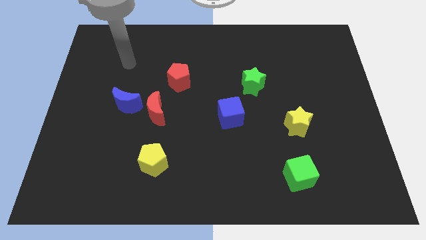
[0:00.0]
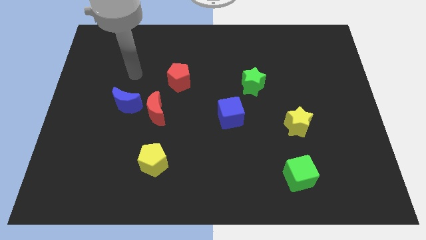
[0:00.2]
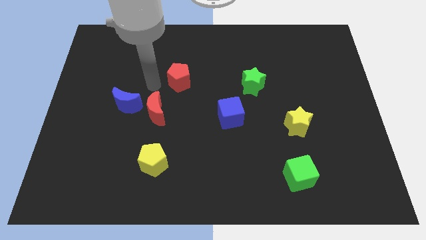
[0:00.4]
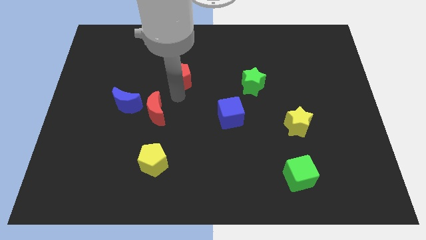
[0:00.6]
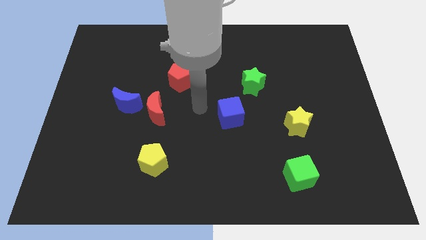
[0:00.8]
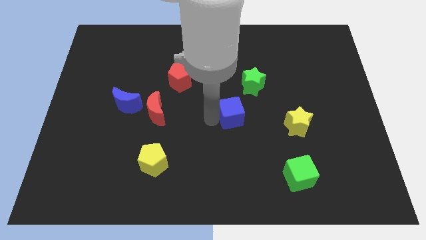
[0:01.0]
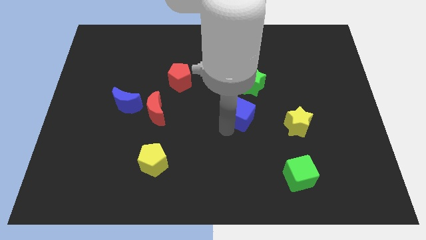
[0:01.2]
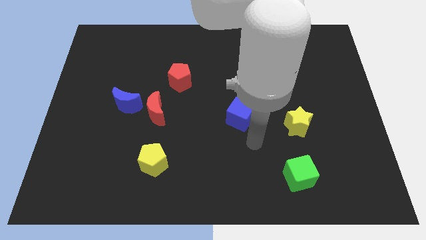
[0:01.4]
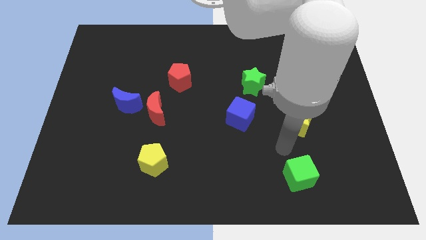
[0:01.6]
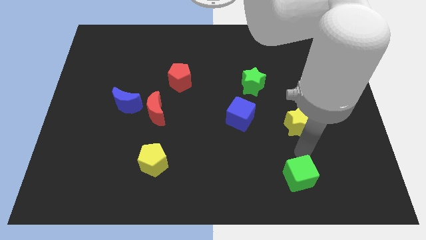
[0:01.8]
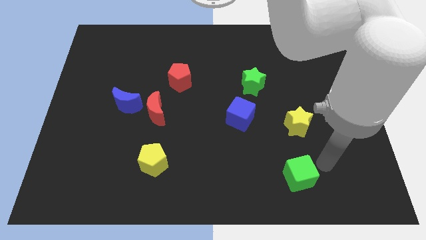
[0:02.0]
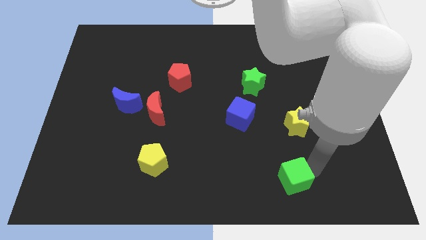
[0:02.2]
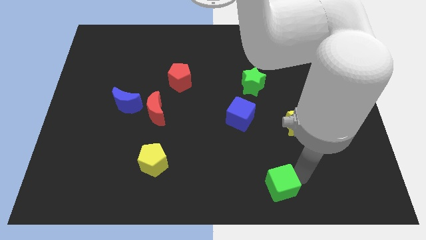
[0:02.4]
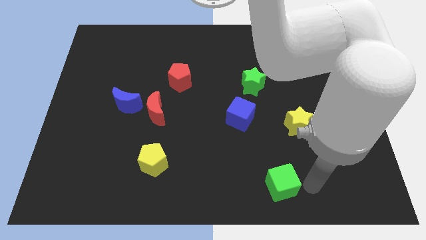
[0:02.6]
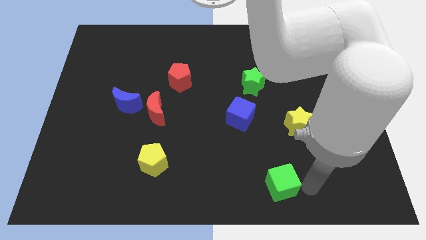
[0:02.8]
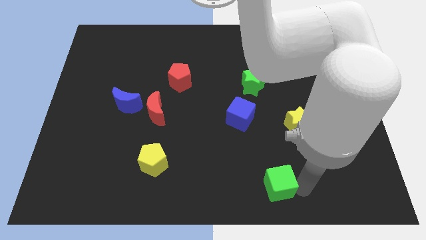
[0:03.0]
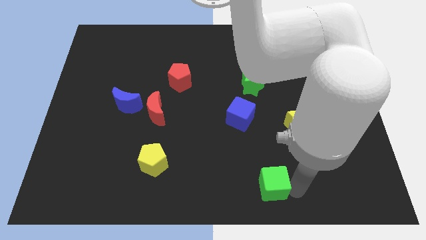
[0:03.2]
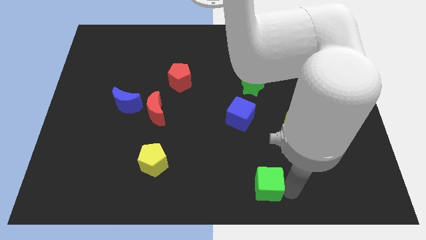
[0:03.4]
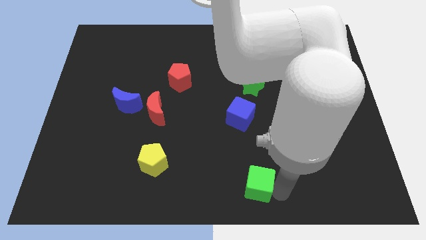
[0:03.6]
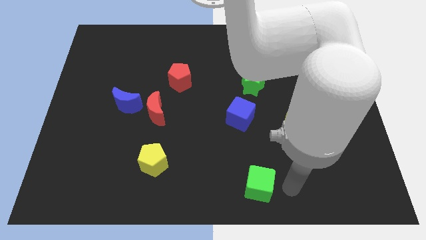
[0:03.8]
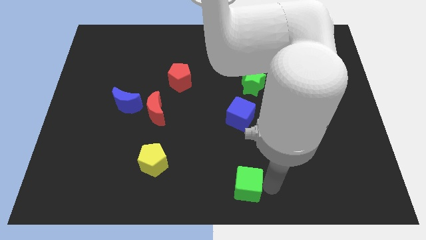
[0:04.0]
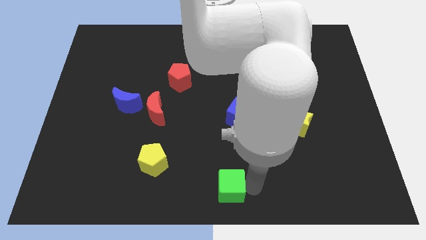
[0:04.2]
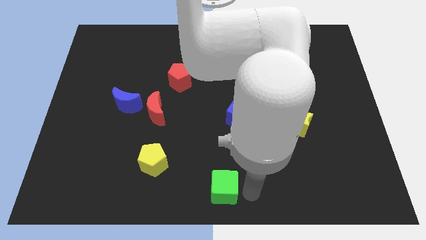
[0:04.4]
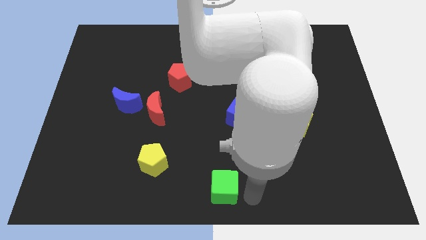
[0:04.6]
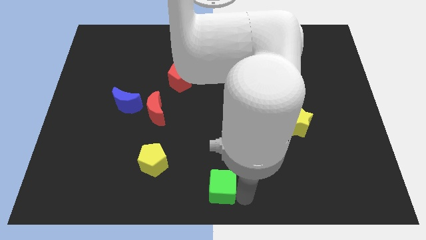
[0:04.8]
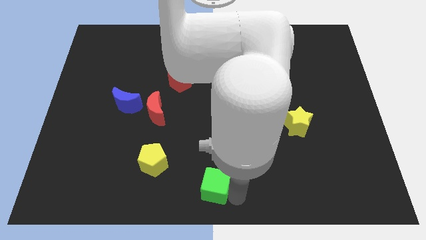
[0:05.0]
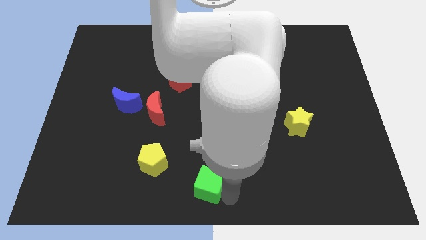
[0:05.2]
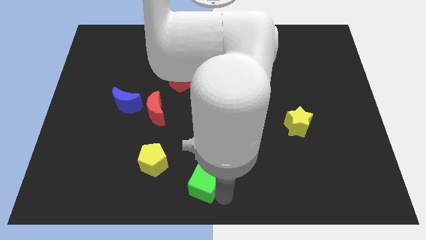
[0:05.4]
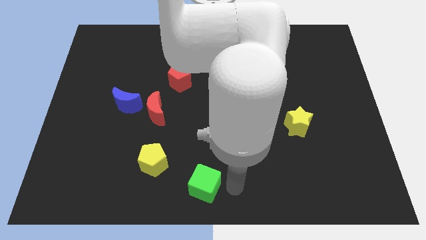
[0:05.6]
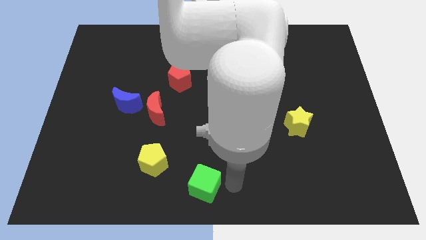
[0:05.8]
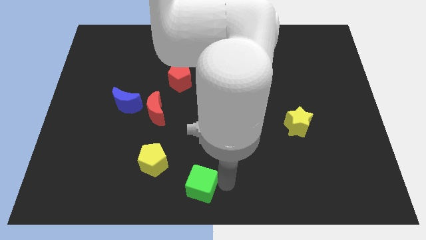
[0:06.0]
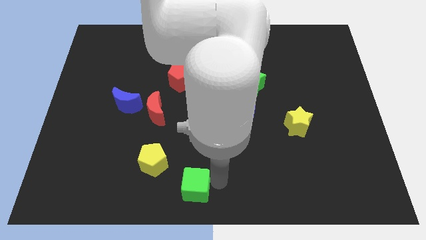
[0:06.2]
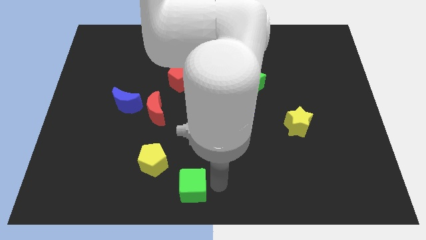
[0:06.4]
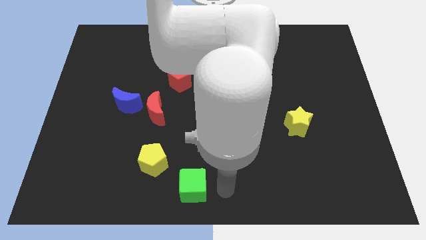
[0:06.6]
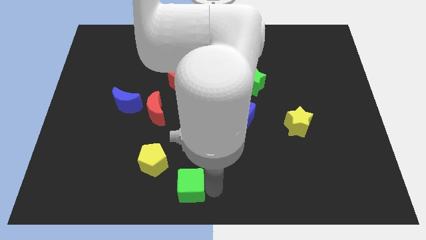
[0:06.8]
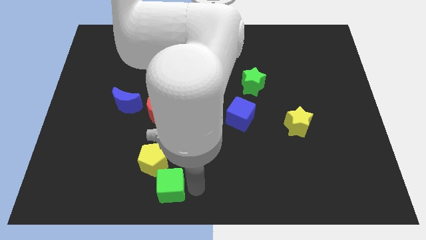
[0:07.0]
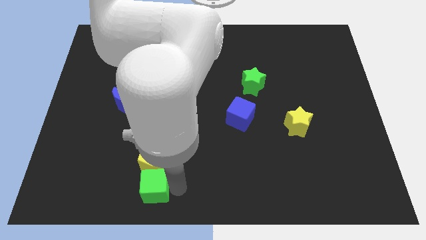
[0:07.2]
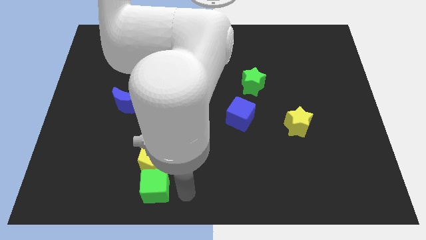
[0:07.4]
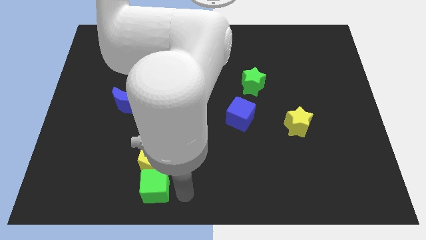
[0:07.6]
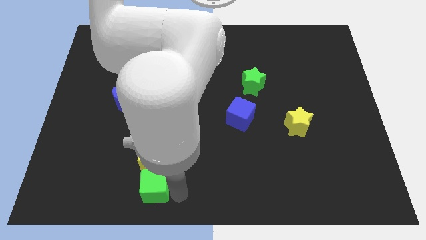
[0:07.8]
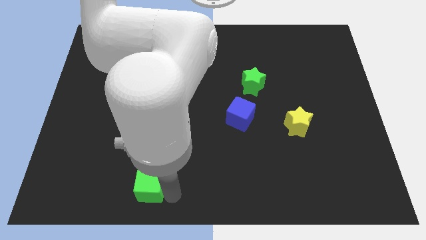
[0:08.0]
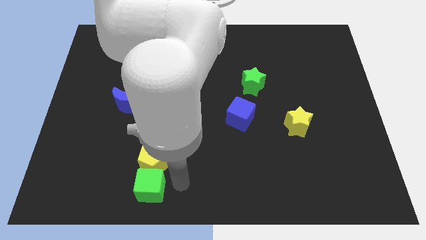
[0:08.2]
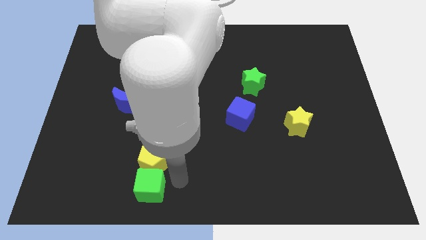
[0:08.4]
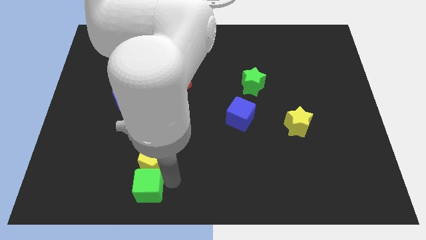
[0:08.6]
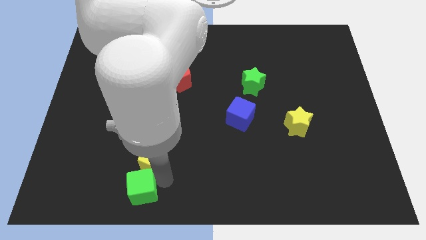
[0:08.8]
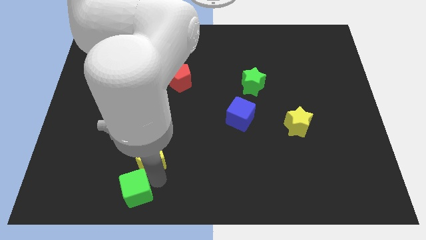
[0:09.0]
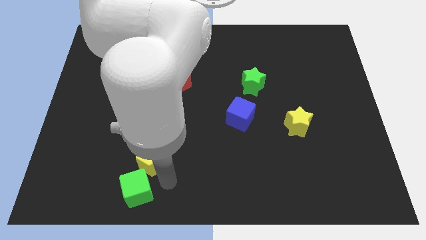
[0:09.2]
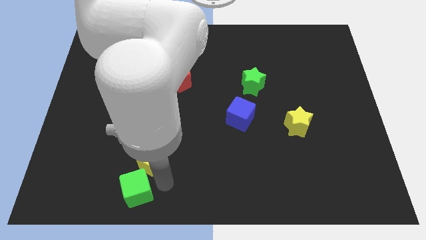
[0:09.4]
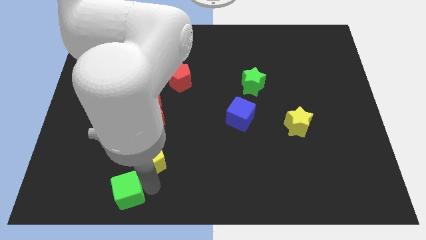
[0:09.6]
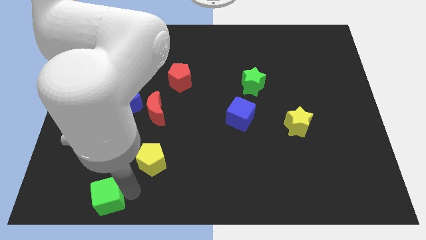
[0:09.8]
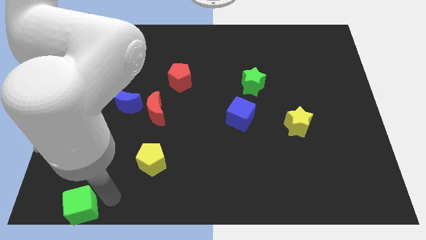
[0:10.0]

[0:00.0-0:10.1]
move the green cube to the bottom left

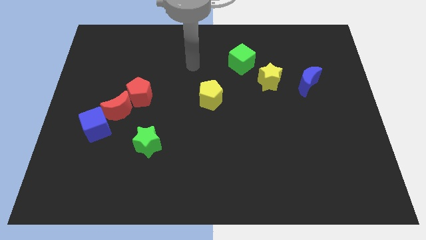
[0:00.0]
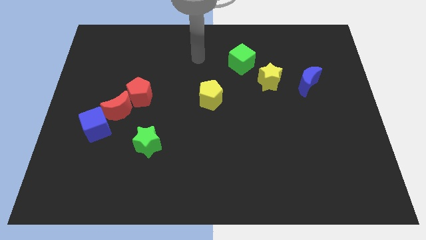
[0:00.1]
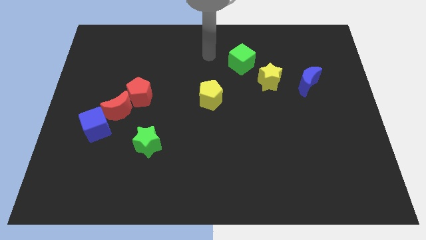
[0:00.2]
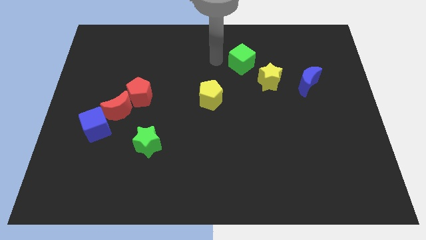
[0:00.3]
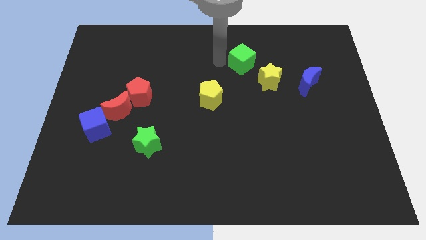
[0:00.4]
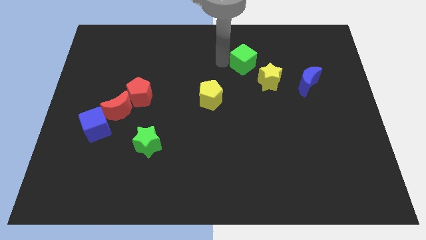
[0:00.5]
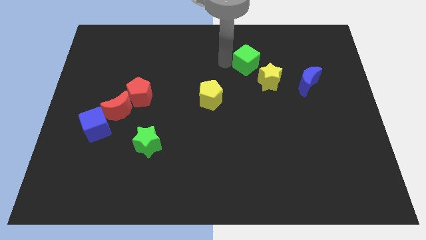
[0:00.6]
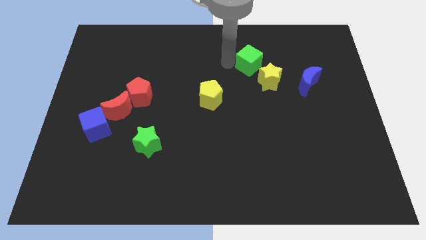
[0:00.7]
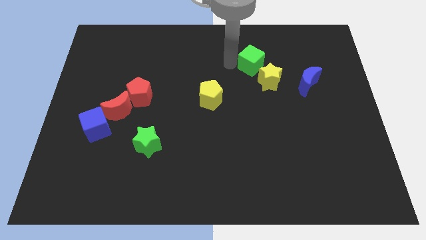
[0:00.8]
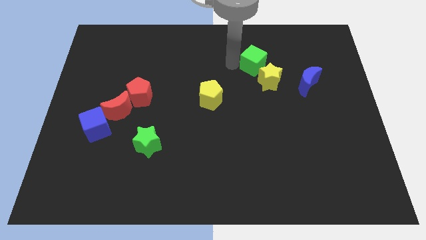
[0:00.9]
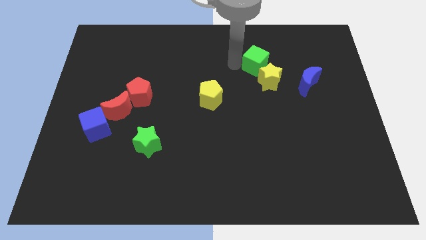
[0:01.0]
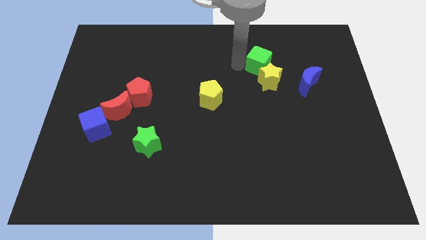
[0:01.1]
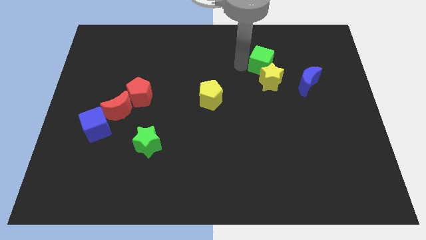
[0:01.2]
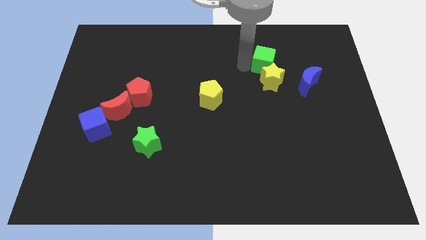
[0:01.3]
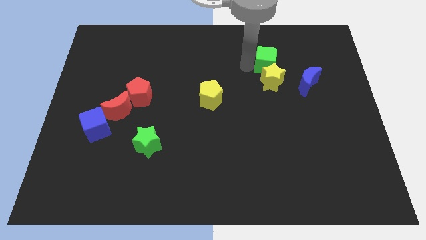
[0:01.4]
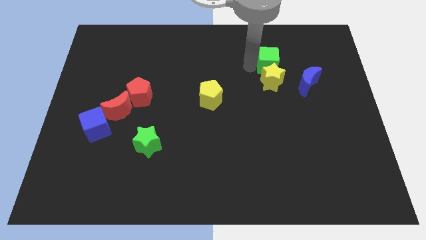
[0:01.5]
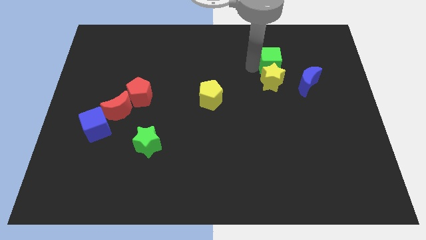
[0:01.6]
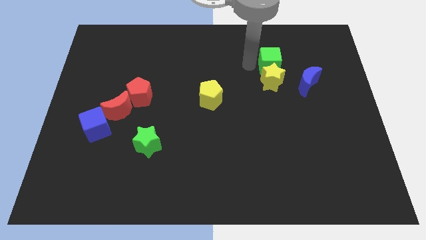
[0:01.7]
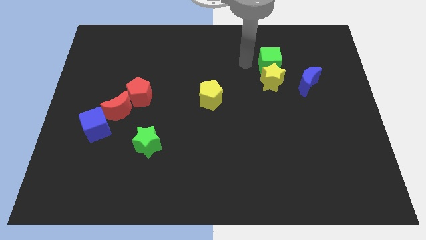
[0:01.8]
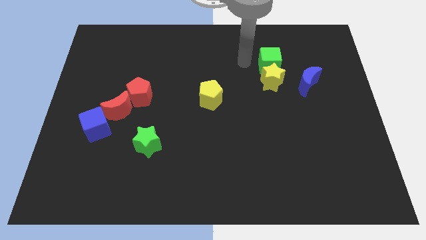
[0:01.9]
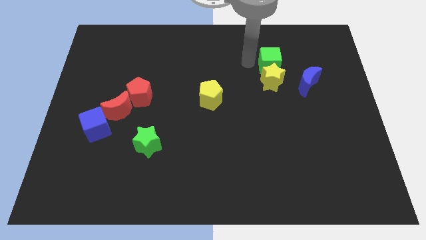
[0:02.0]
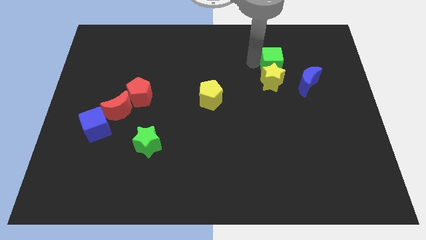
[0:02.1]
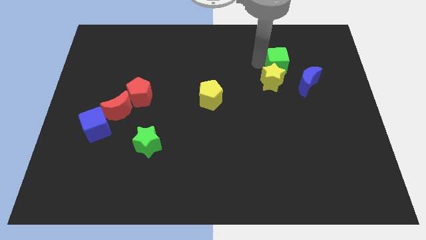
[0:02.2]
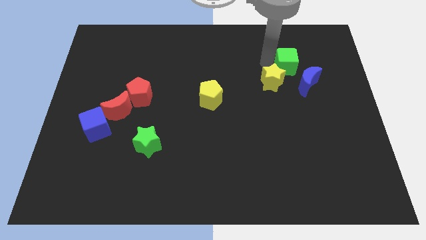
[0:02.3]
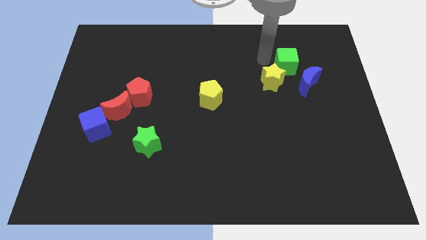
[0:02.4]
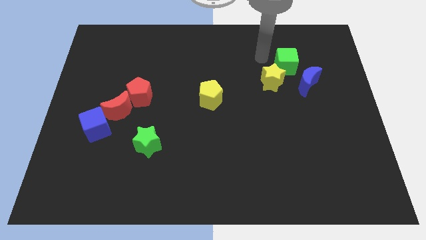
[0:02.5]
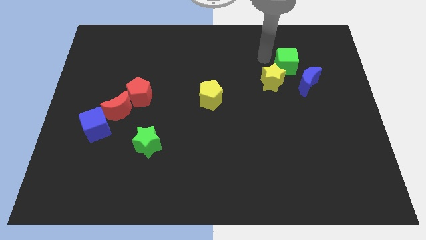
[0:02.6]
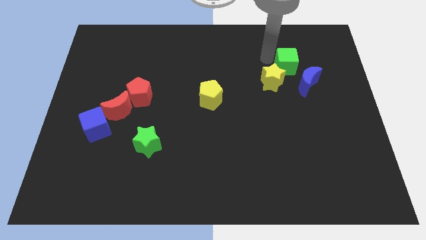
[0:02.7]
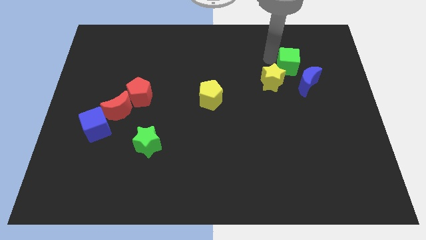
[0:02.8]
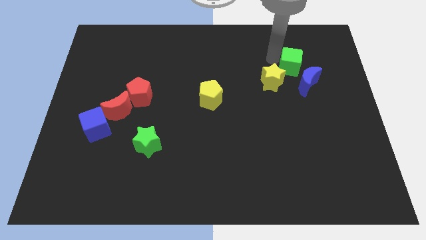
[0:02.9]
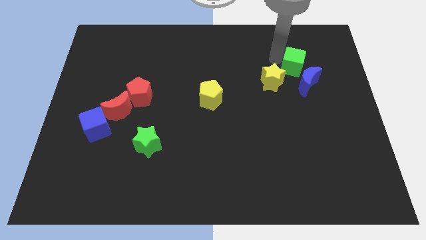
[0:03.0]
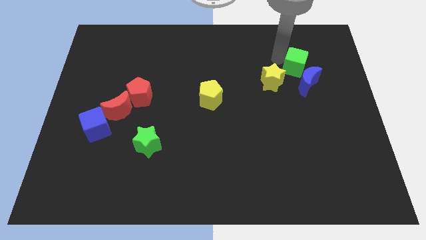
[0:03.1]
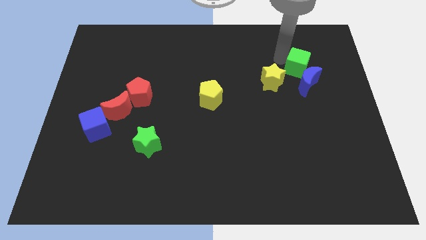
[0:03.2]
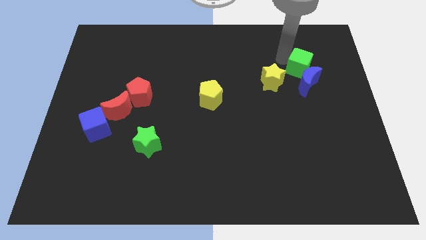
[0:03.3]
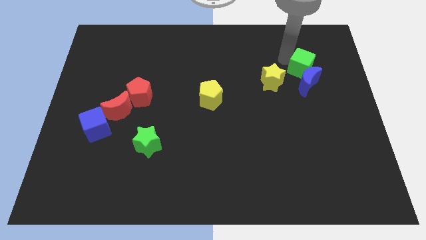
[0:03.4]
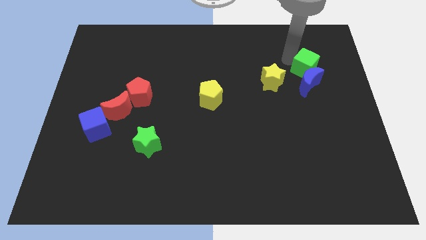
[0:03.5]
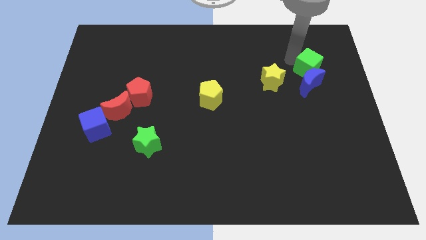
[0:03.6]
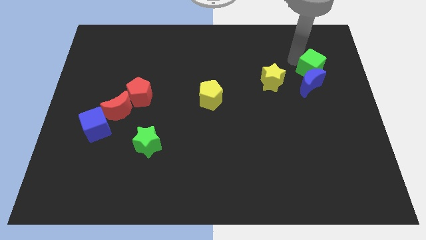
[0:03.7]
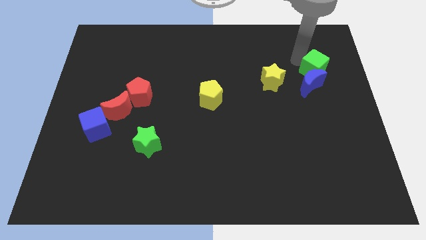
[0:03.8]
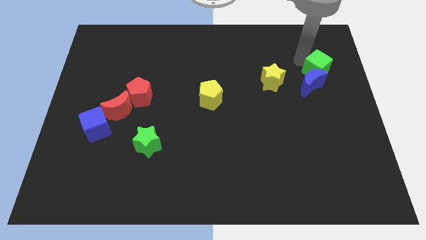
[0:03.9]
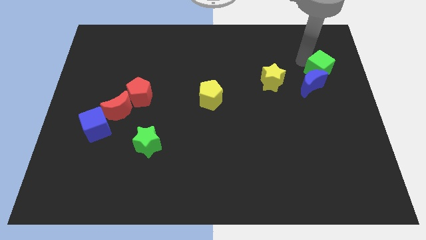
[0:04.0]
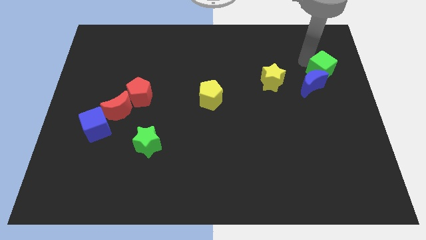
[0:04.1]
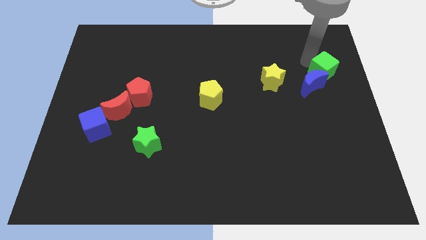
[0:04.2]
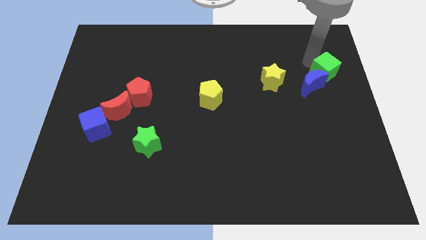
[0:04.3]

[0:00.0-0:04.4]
push the green cube to the right side
